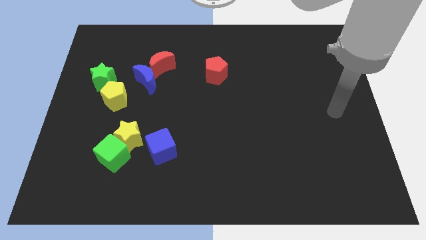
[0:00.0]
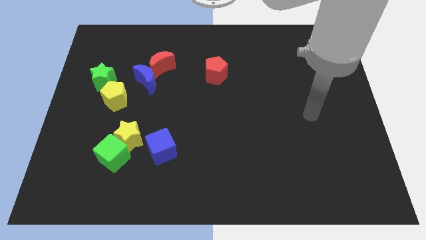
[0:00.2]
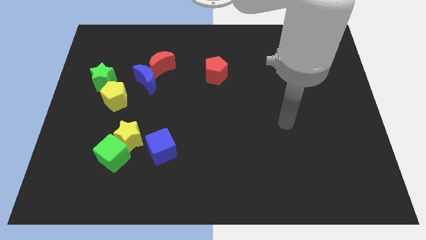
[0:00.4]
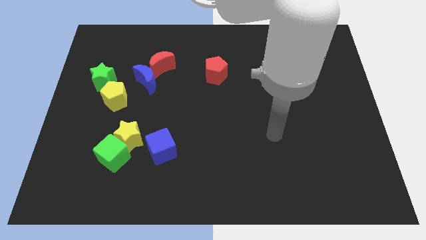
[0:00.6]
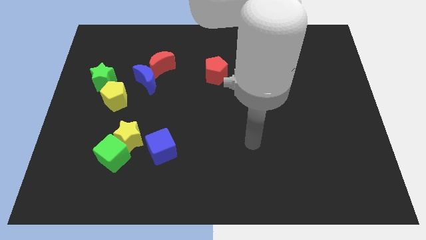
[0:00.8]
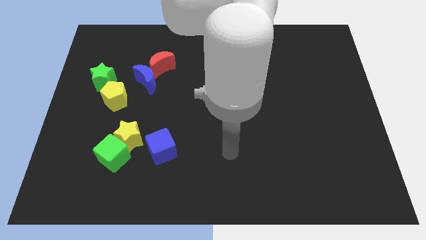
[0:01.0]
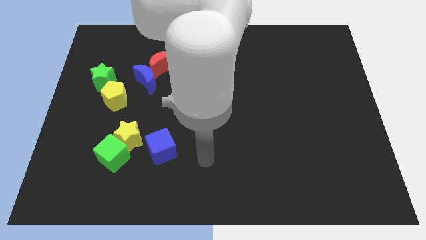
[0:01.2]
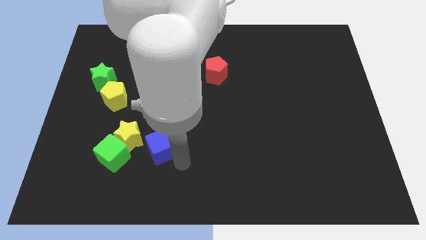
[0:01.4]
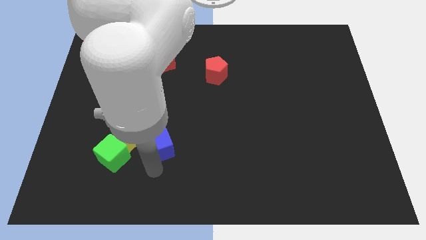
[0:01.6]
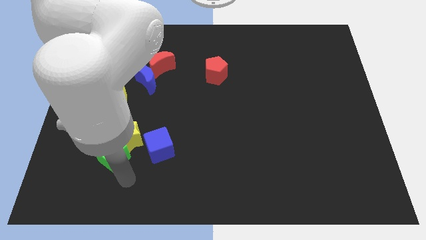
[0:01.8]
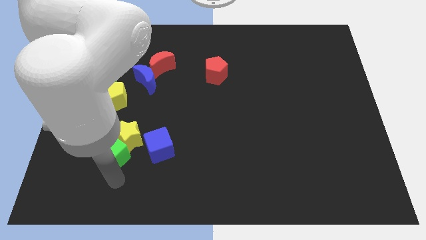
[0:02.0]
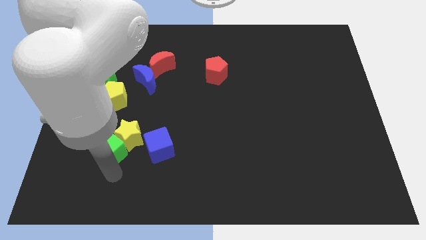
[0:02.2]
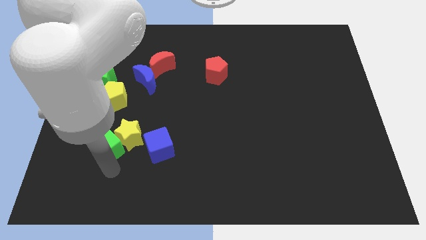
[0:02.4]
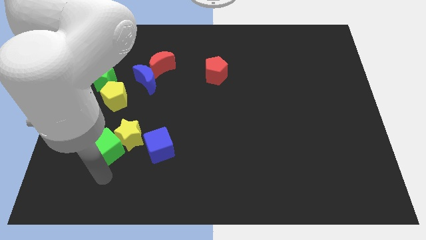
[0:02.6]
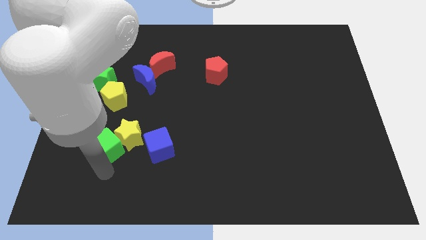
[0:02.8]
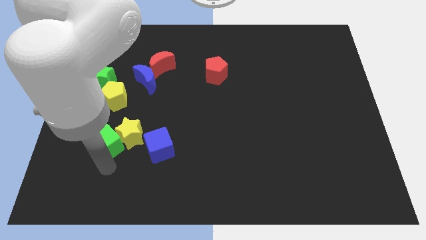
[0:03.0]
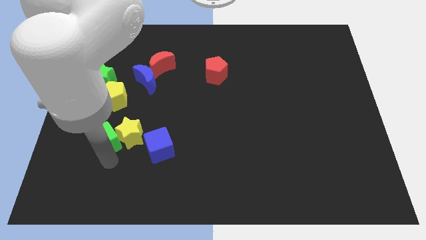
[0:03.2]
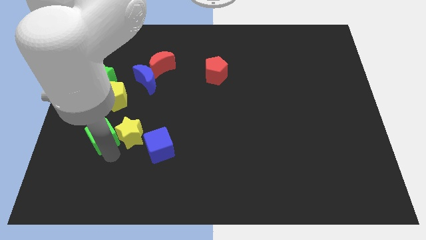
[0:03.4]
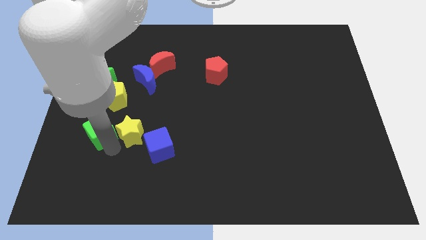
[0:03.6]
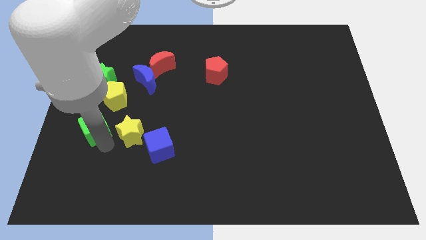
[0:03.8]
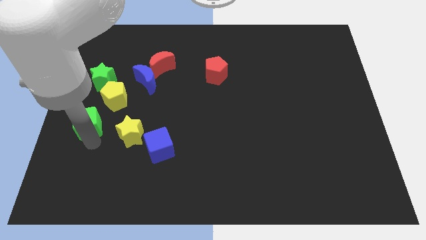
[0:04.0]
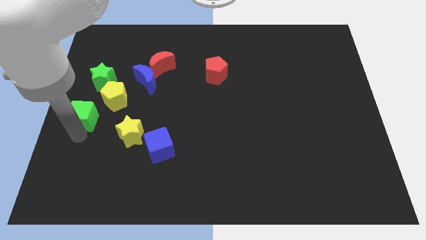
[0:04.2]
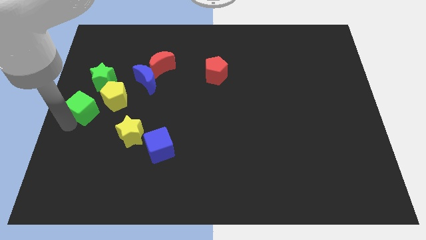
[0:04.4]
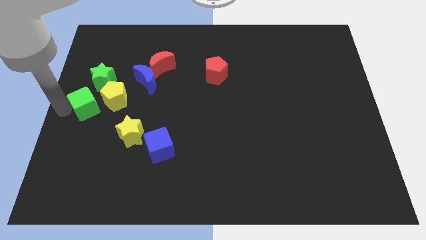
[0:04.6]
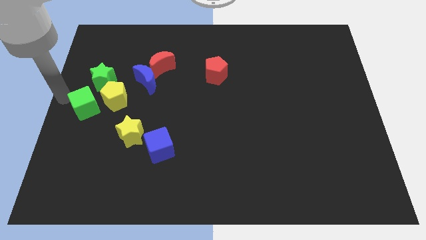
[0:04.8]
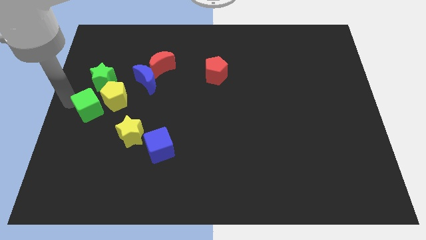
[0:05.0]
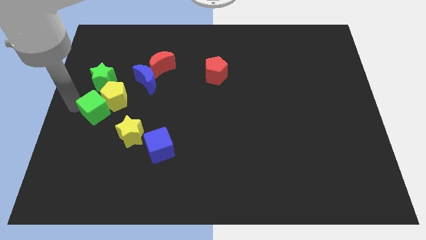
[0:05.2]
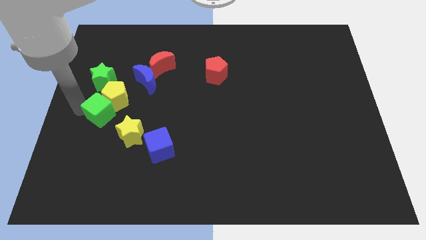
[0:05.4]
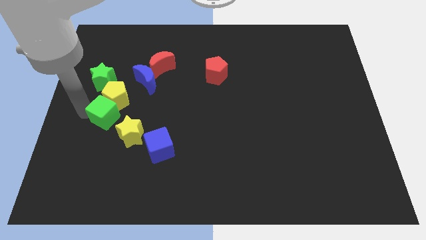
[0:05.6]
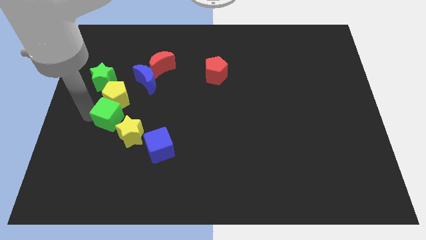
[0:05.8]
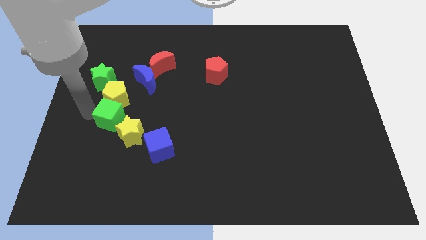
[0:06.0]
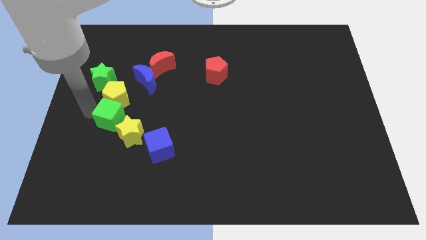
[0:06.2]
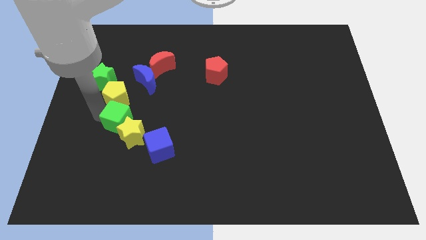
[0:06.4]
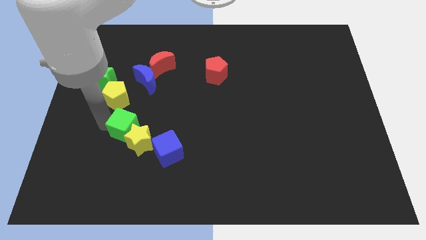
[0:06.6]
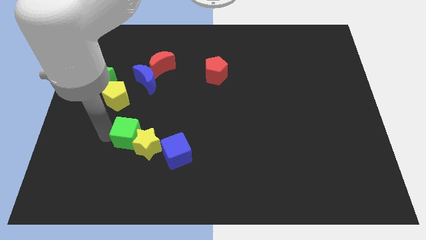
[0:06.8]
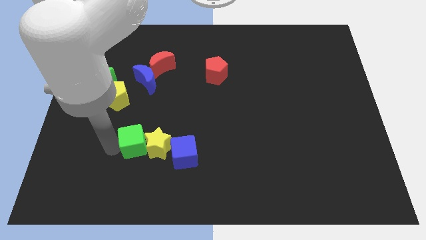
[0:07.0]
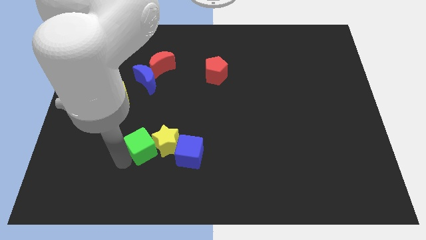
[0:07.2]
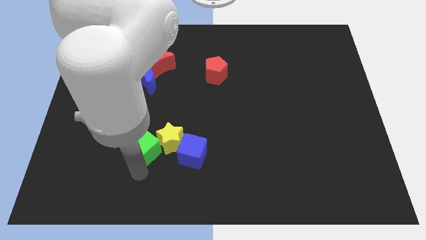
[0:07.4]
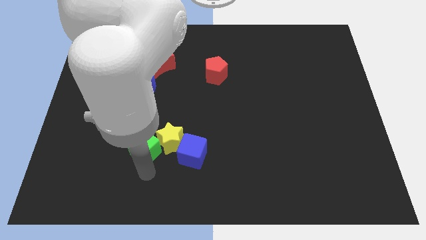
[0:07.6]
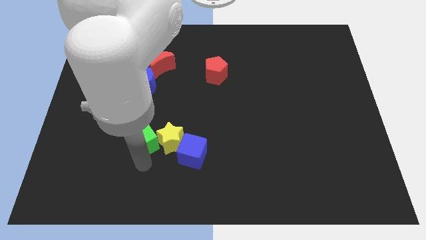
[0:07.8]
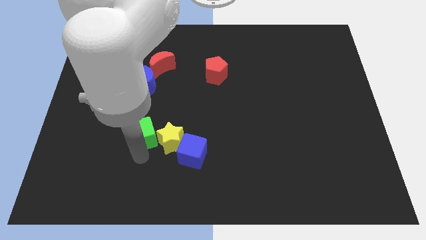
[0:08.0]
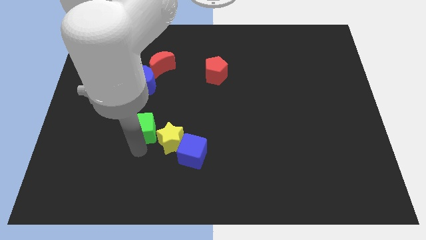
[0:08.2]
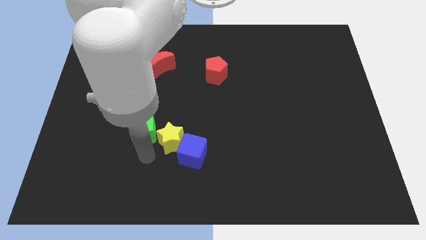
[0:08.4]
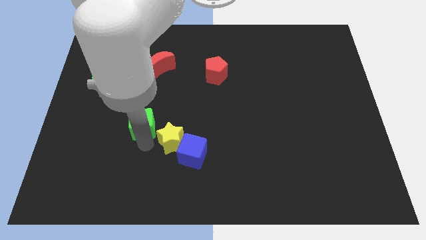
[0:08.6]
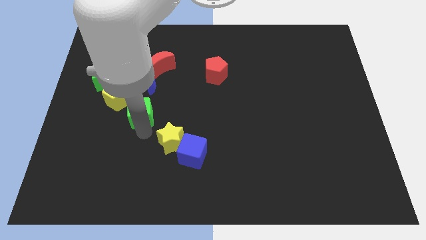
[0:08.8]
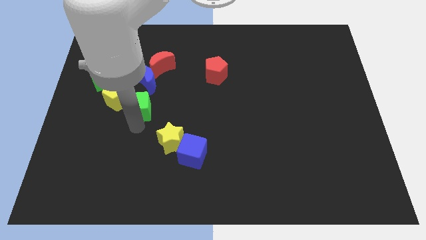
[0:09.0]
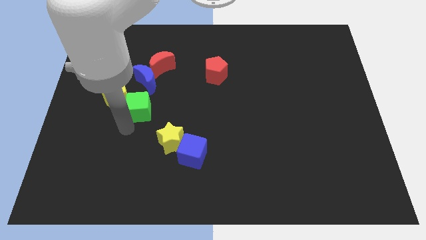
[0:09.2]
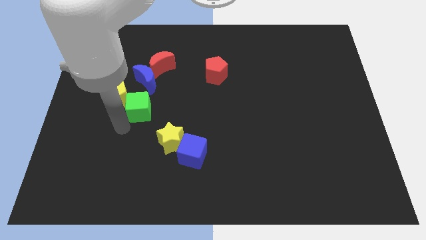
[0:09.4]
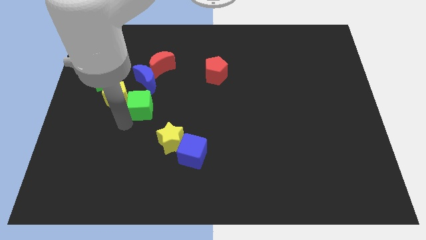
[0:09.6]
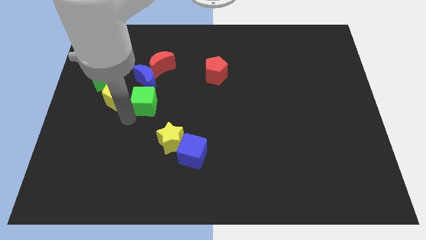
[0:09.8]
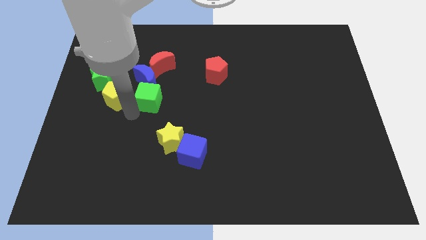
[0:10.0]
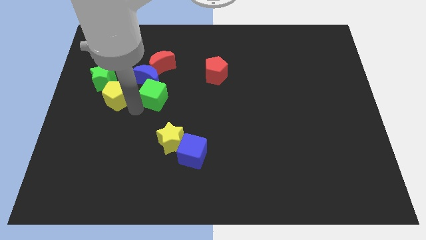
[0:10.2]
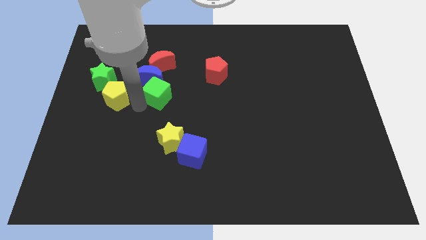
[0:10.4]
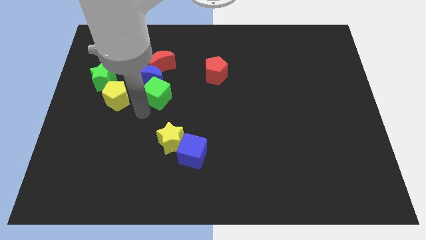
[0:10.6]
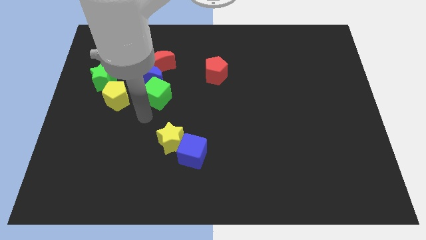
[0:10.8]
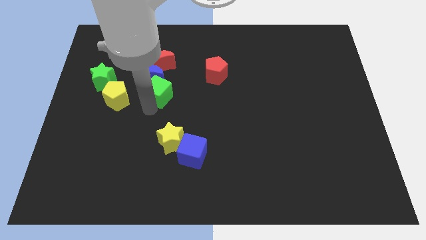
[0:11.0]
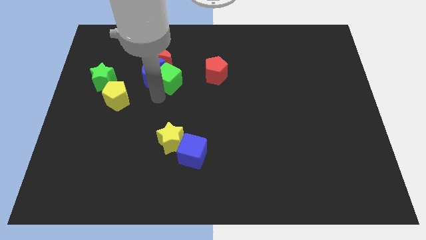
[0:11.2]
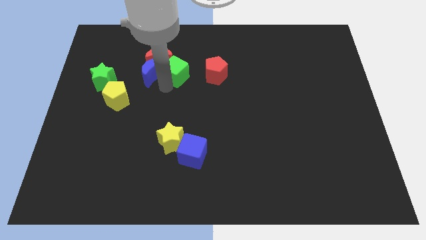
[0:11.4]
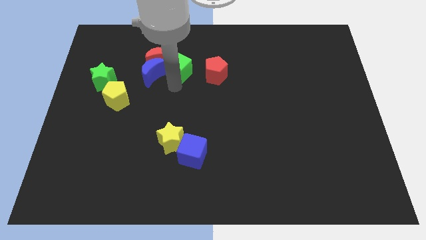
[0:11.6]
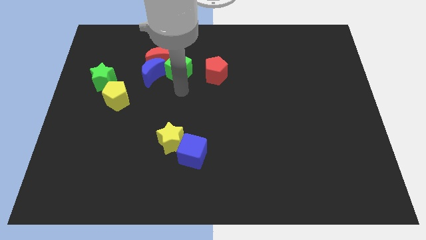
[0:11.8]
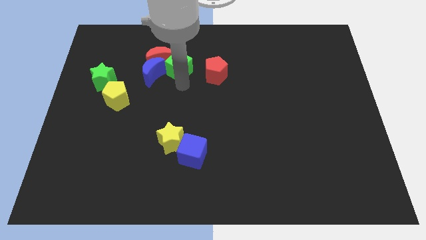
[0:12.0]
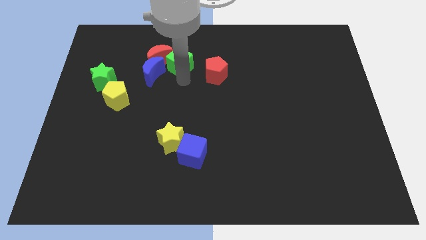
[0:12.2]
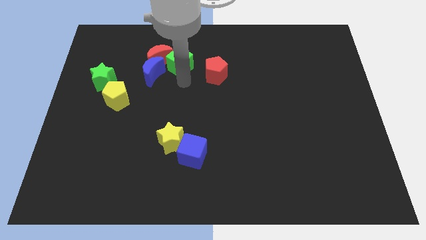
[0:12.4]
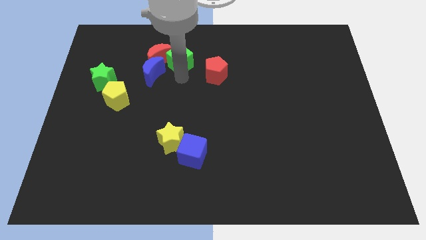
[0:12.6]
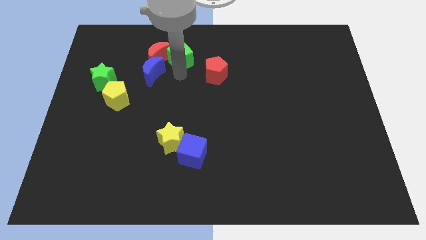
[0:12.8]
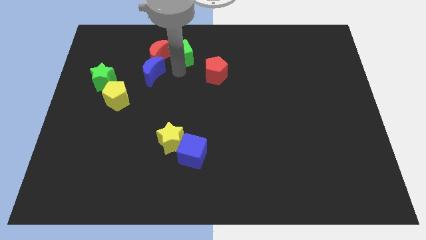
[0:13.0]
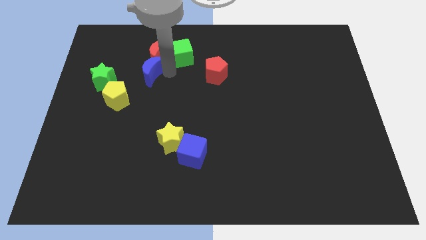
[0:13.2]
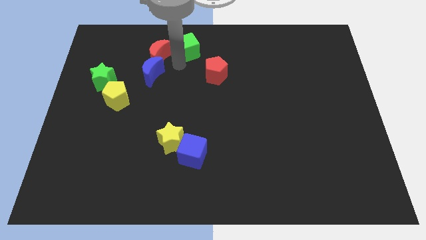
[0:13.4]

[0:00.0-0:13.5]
slide the green cube to the towards your base

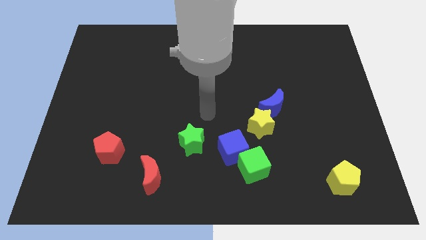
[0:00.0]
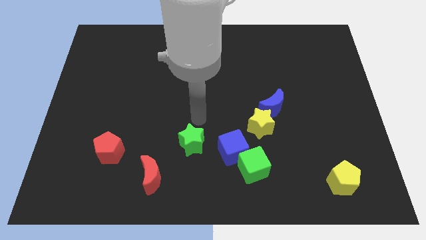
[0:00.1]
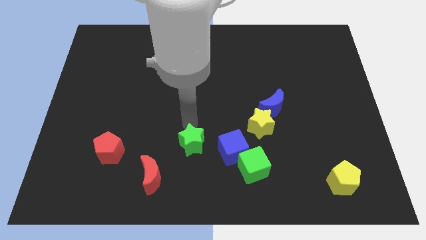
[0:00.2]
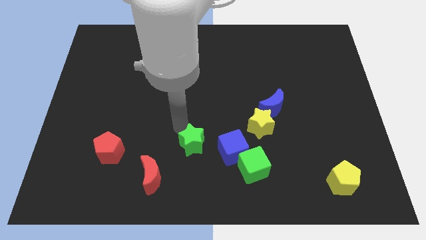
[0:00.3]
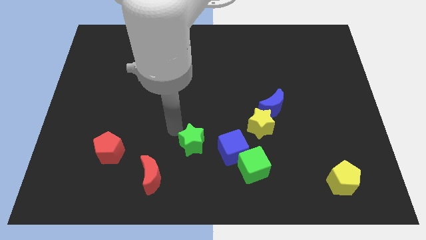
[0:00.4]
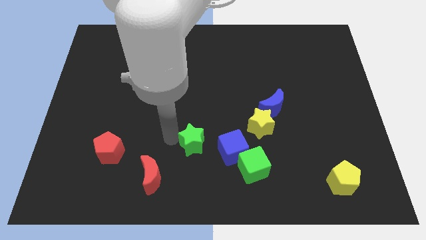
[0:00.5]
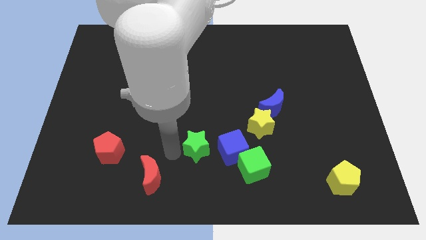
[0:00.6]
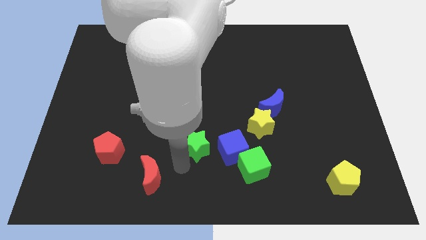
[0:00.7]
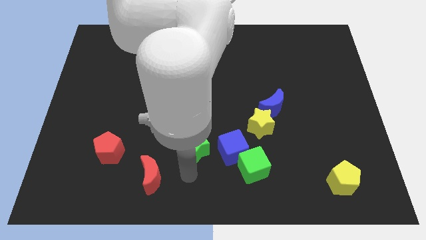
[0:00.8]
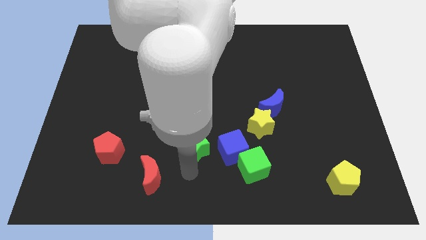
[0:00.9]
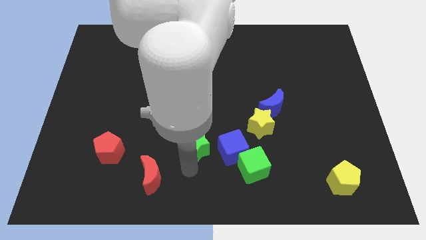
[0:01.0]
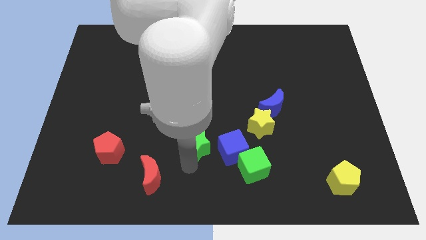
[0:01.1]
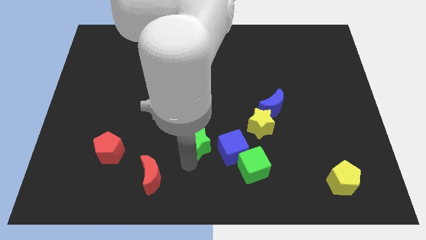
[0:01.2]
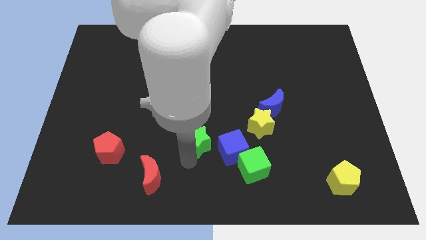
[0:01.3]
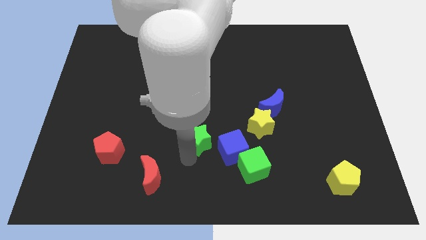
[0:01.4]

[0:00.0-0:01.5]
move the green star to the center of the board
